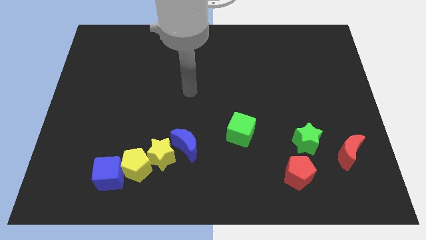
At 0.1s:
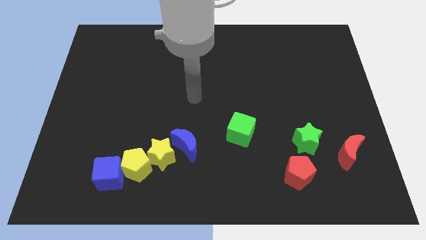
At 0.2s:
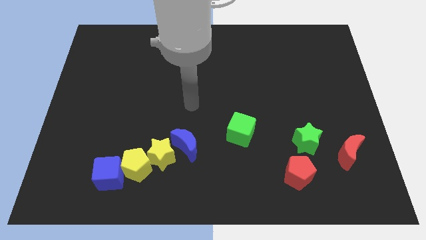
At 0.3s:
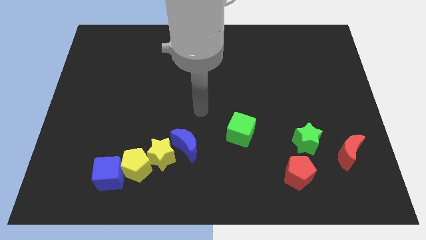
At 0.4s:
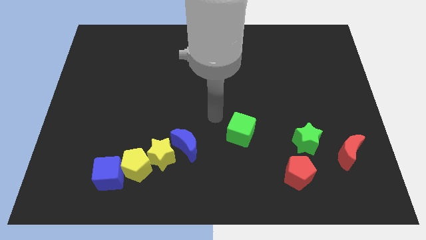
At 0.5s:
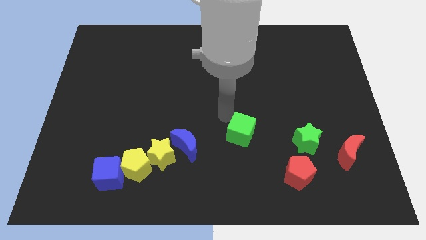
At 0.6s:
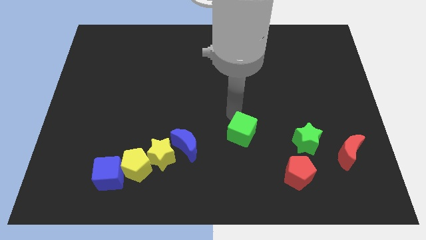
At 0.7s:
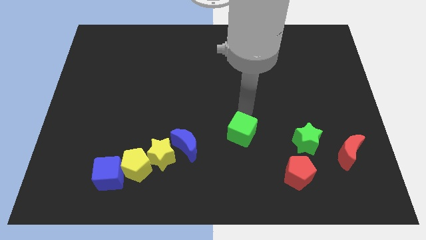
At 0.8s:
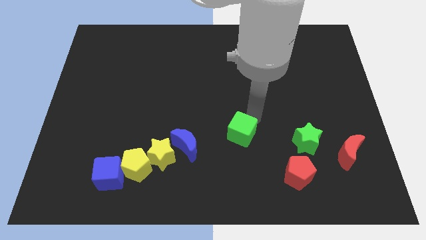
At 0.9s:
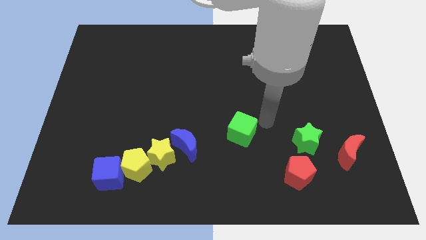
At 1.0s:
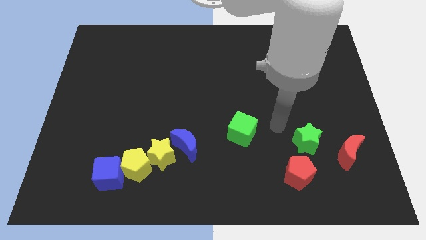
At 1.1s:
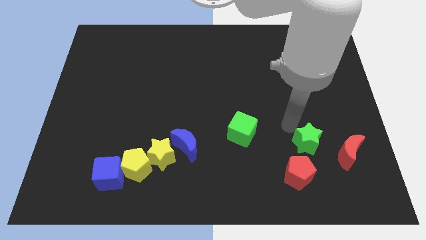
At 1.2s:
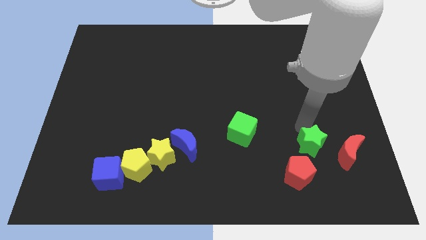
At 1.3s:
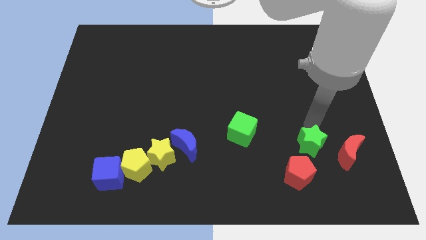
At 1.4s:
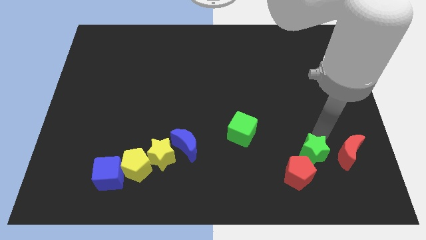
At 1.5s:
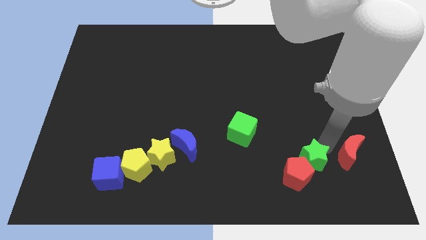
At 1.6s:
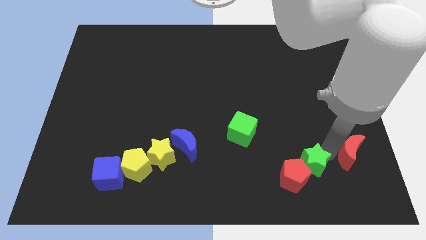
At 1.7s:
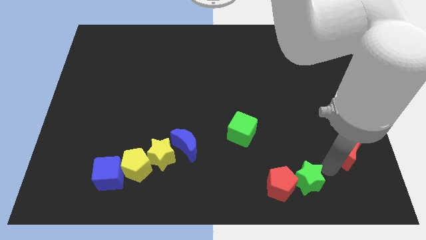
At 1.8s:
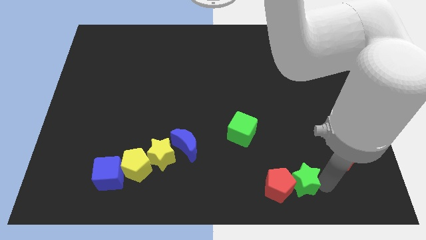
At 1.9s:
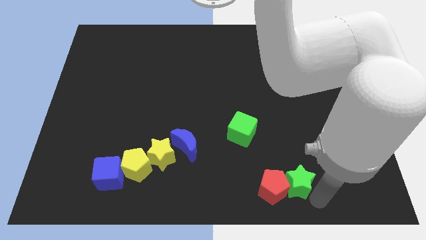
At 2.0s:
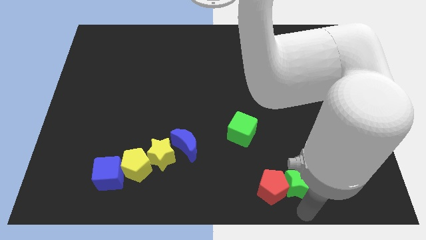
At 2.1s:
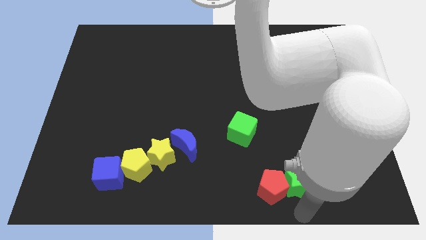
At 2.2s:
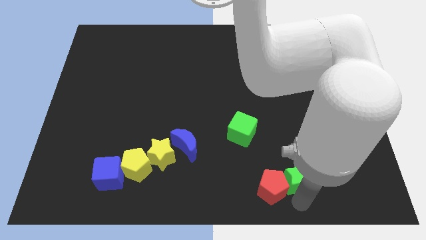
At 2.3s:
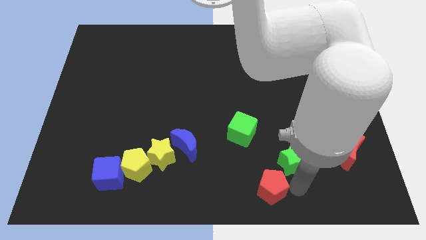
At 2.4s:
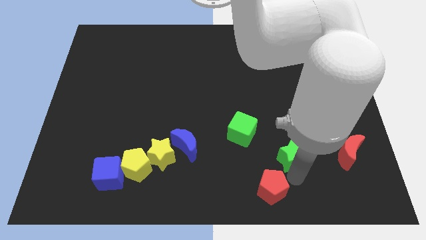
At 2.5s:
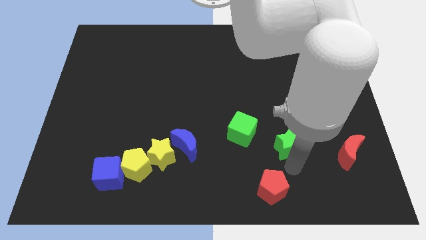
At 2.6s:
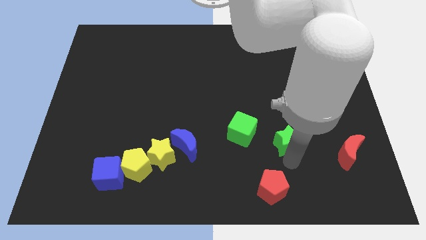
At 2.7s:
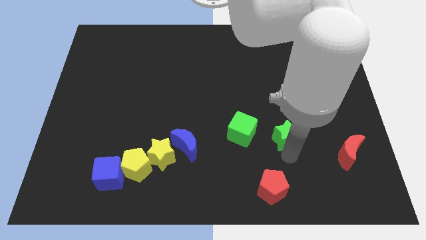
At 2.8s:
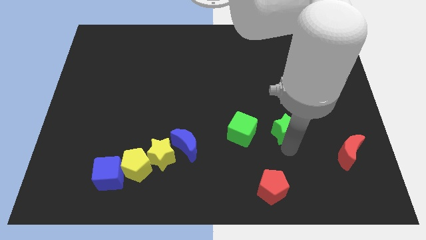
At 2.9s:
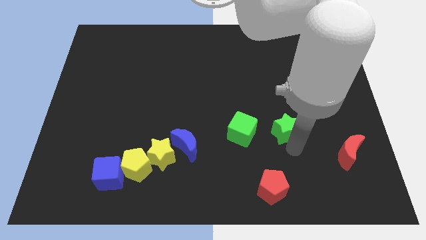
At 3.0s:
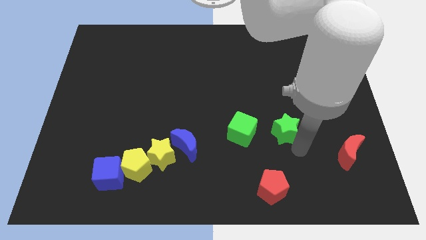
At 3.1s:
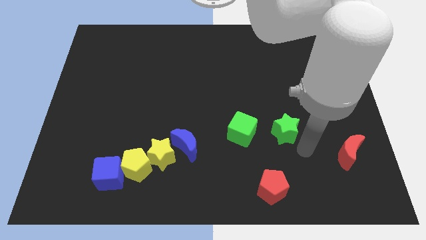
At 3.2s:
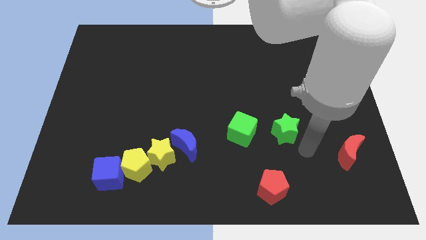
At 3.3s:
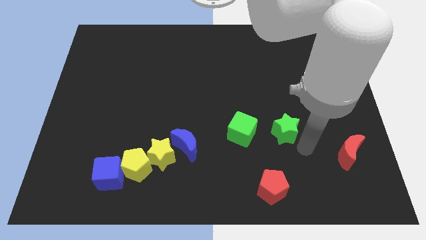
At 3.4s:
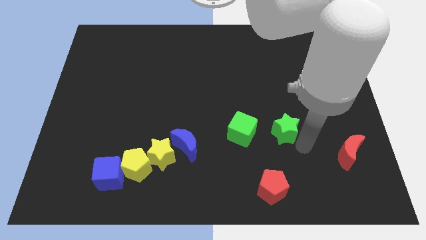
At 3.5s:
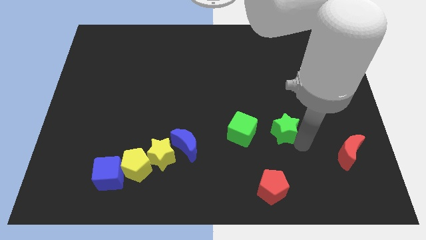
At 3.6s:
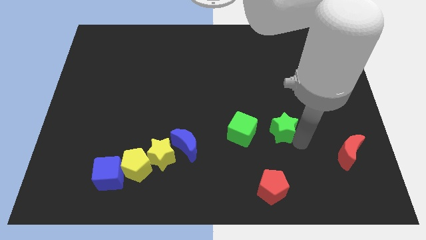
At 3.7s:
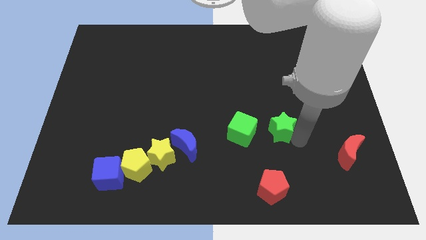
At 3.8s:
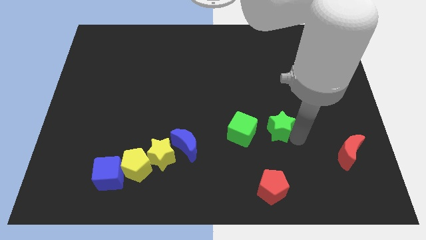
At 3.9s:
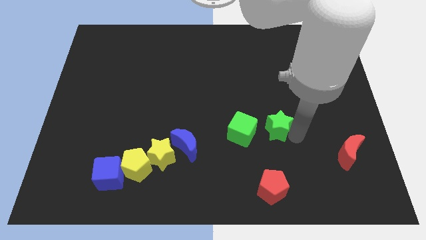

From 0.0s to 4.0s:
slightly move the green star up and then to the left

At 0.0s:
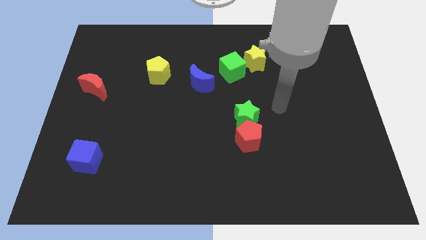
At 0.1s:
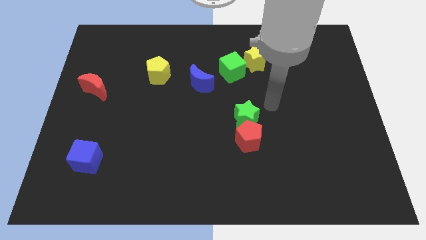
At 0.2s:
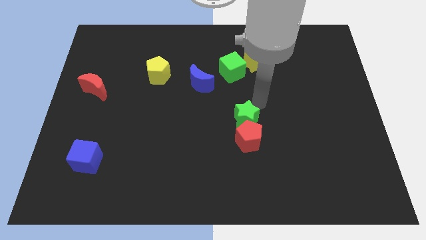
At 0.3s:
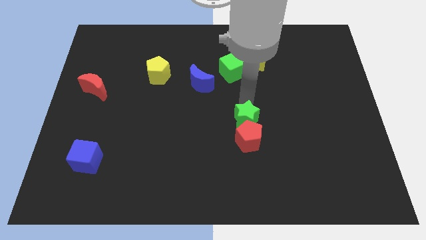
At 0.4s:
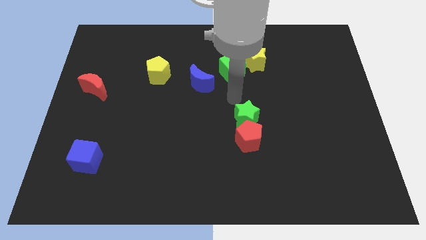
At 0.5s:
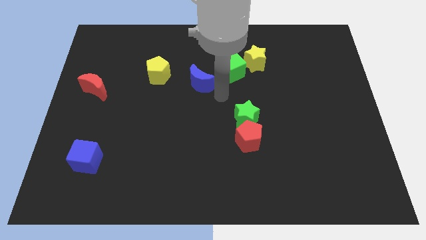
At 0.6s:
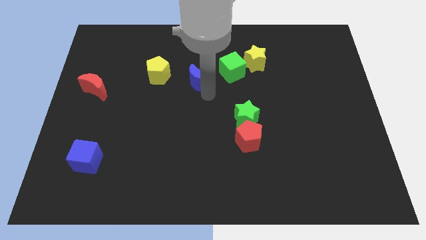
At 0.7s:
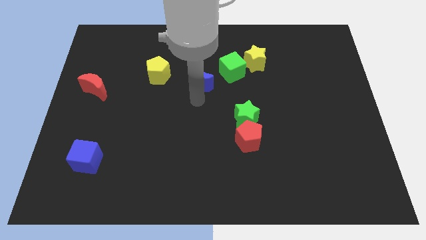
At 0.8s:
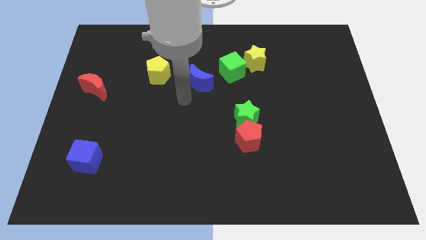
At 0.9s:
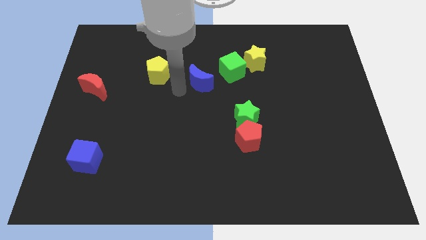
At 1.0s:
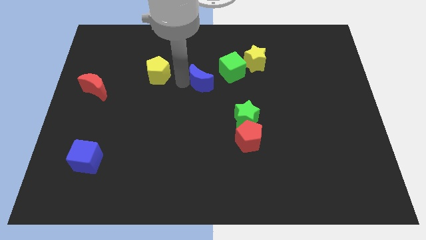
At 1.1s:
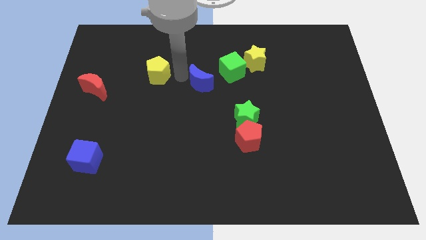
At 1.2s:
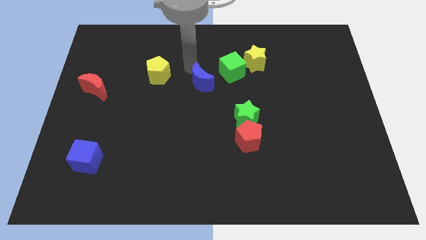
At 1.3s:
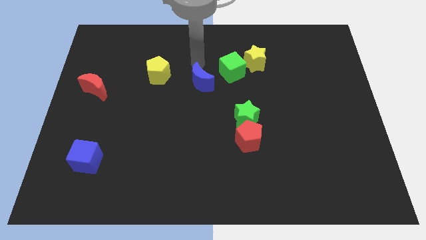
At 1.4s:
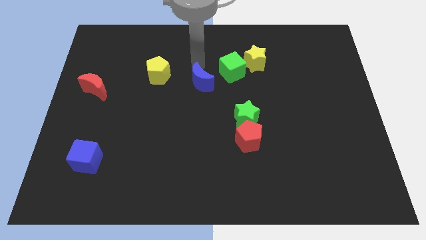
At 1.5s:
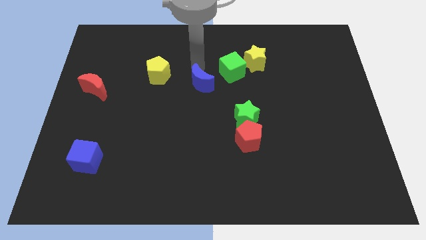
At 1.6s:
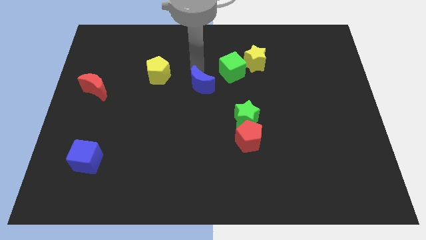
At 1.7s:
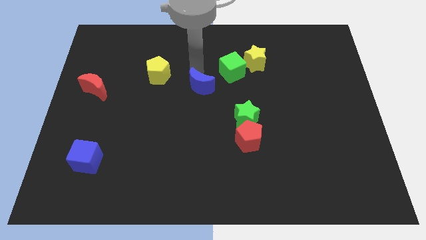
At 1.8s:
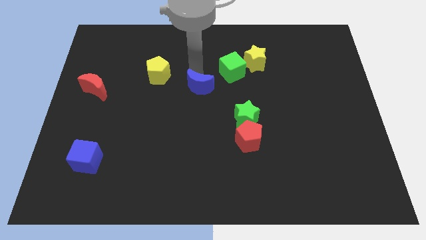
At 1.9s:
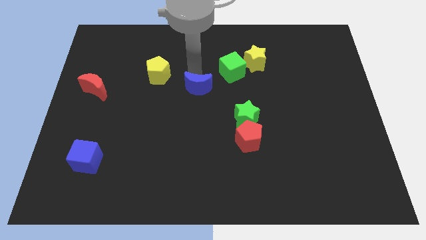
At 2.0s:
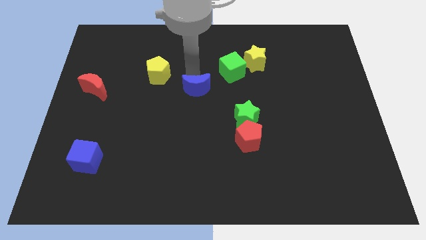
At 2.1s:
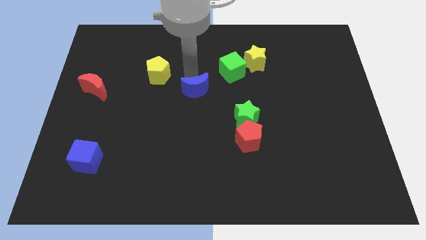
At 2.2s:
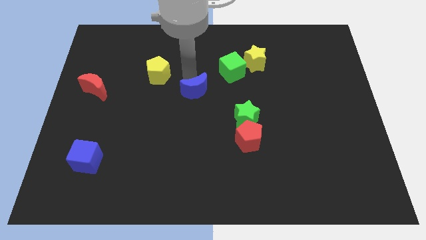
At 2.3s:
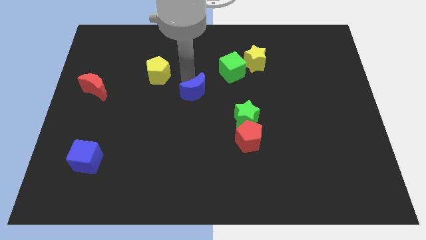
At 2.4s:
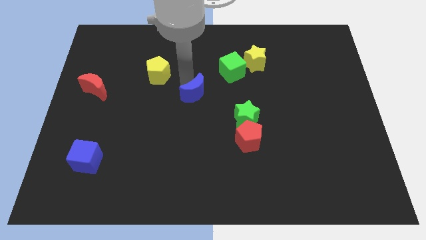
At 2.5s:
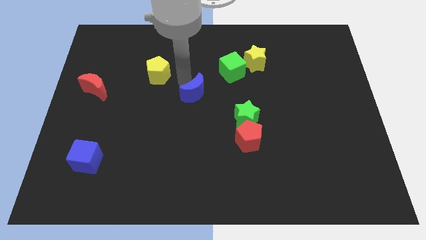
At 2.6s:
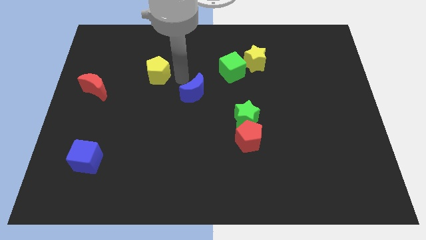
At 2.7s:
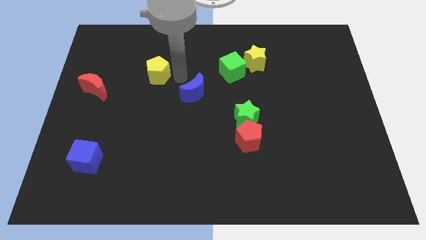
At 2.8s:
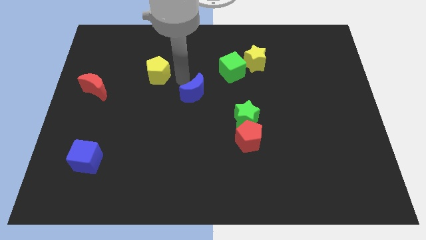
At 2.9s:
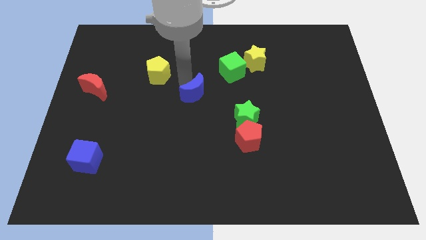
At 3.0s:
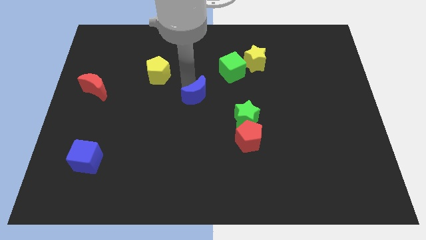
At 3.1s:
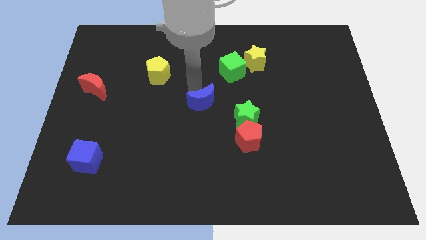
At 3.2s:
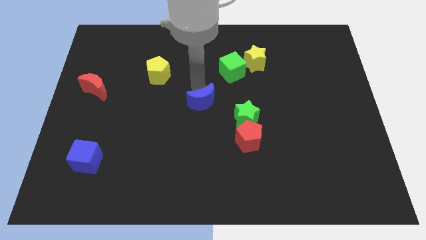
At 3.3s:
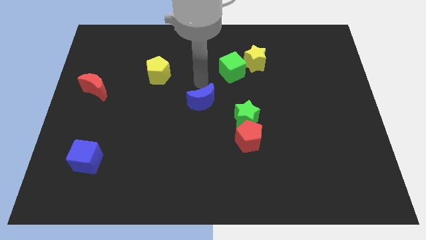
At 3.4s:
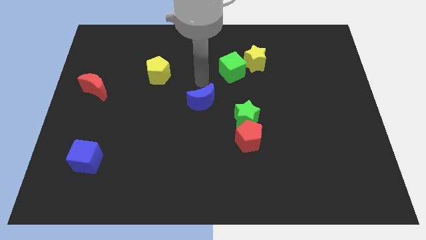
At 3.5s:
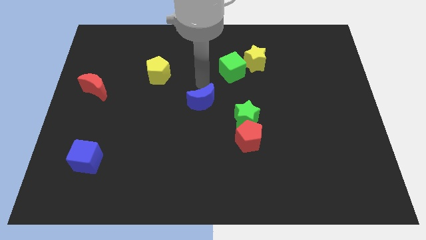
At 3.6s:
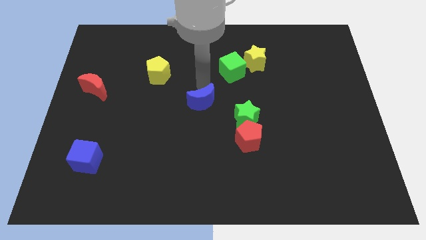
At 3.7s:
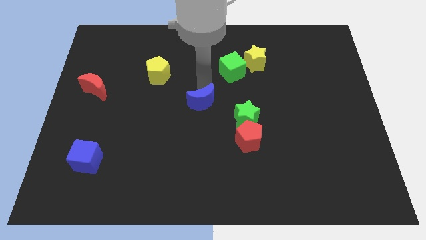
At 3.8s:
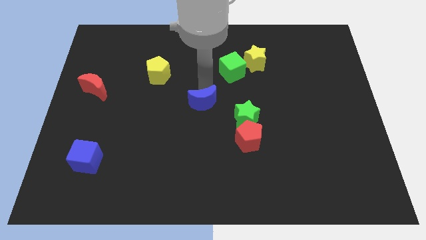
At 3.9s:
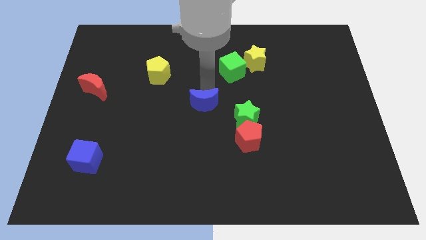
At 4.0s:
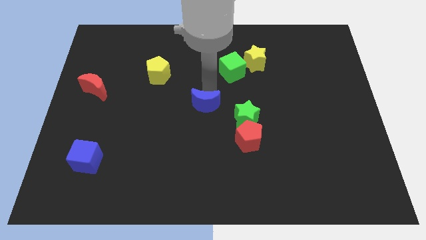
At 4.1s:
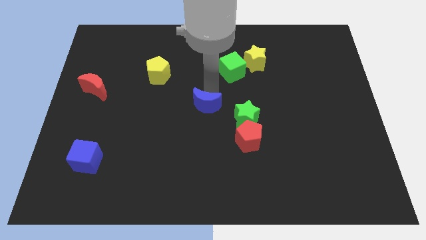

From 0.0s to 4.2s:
move the blue moon down a bit
